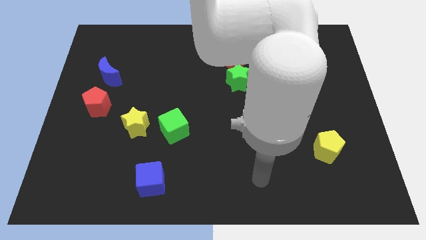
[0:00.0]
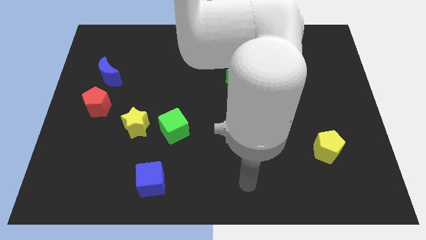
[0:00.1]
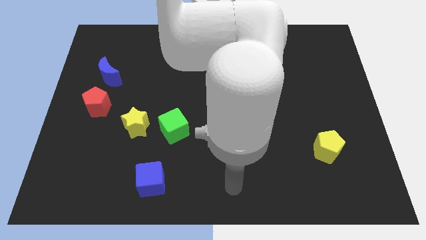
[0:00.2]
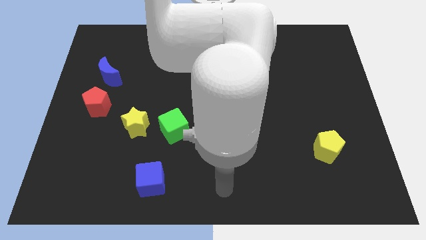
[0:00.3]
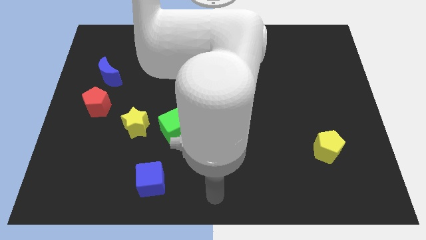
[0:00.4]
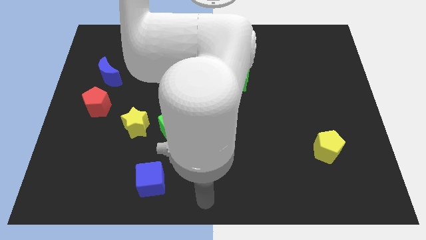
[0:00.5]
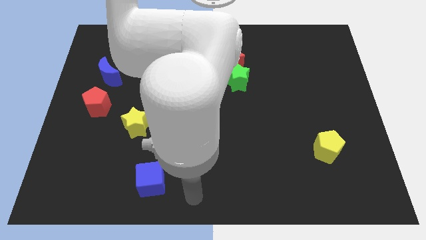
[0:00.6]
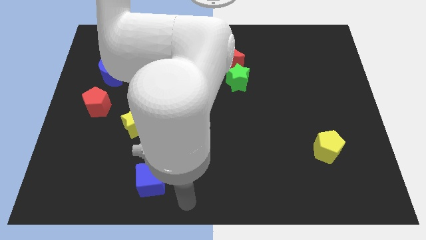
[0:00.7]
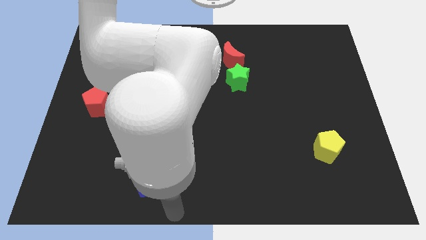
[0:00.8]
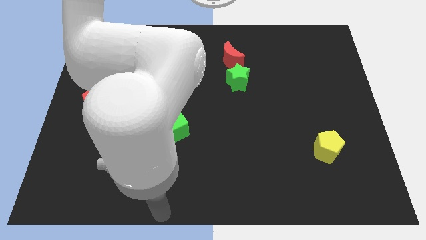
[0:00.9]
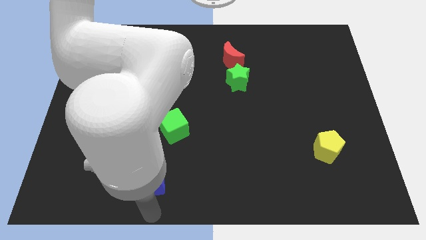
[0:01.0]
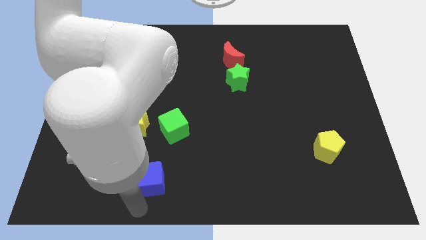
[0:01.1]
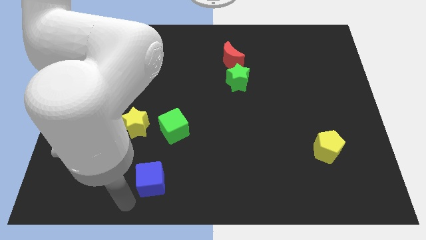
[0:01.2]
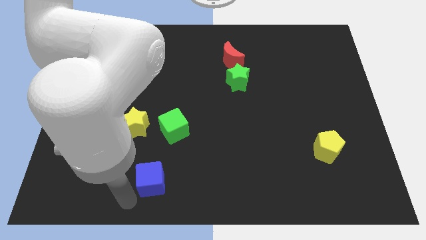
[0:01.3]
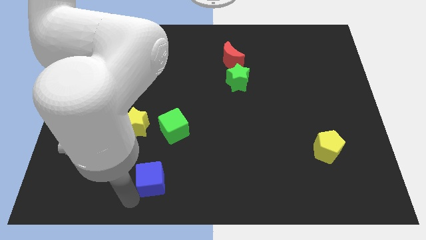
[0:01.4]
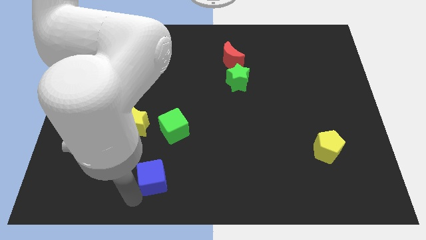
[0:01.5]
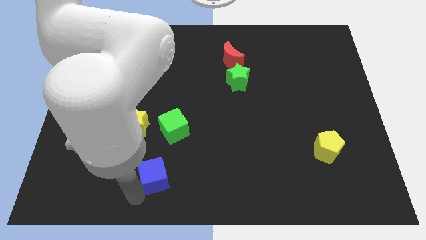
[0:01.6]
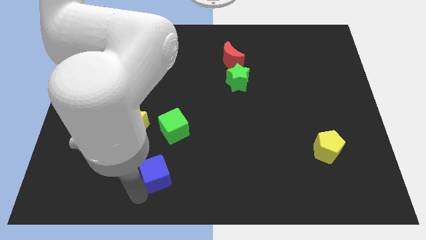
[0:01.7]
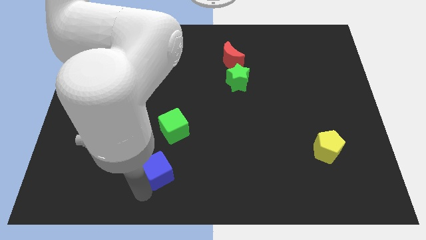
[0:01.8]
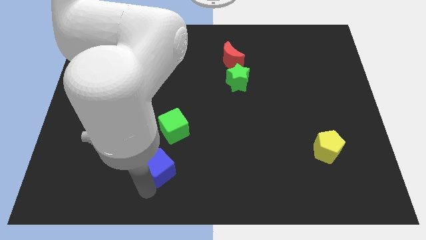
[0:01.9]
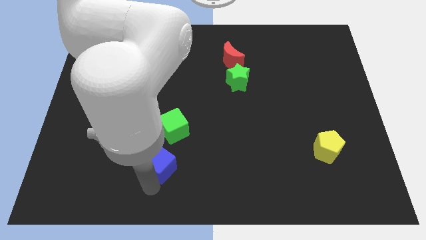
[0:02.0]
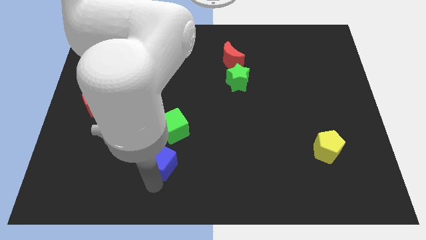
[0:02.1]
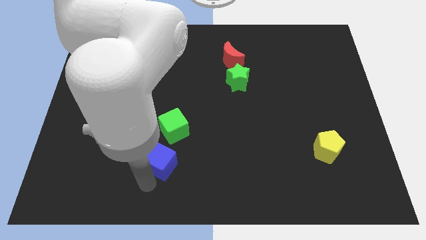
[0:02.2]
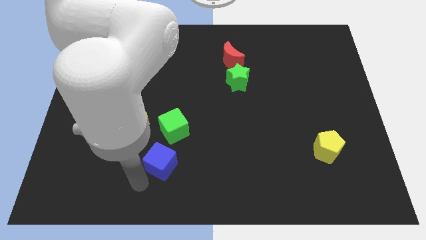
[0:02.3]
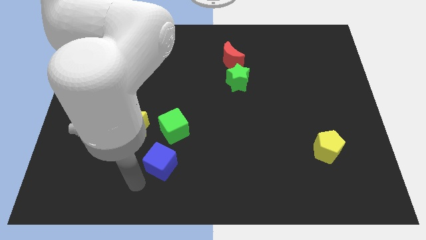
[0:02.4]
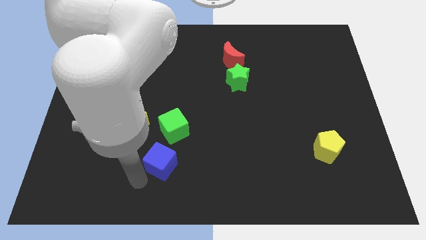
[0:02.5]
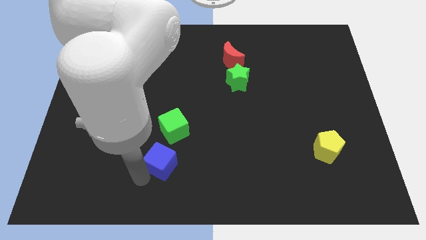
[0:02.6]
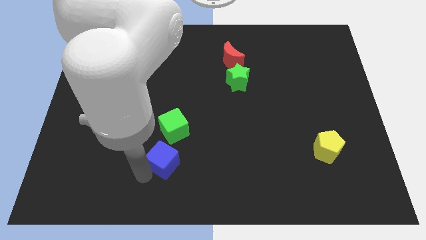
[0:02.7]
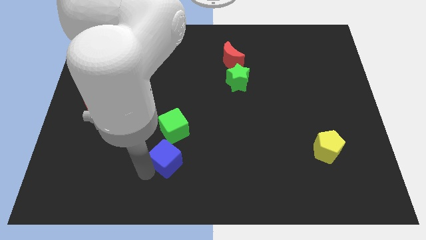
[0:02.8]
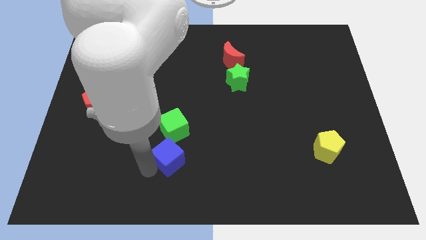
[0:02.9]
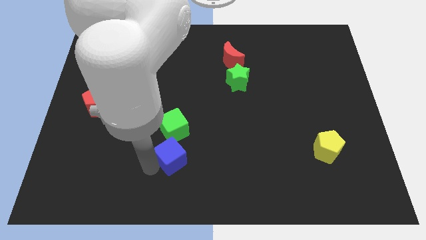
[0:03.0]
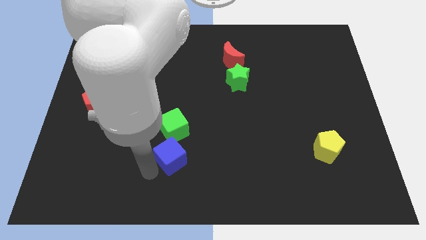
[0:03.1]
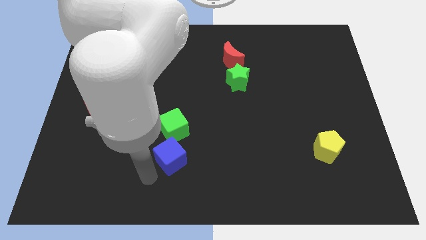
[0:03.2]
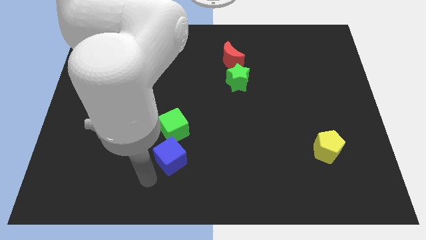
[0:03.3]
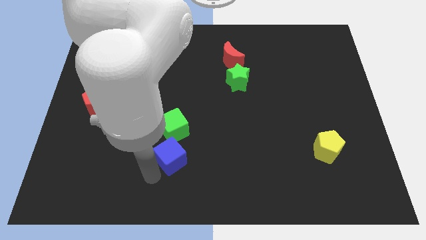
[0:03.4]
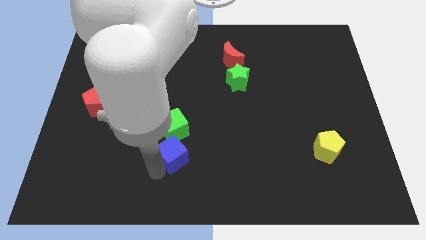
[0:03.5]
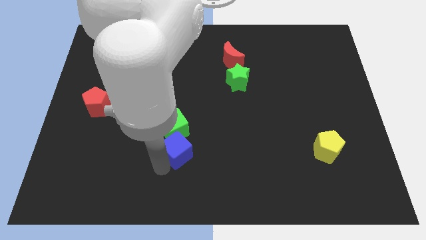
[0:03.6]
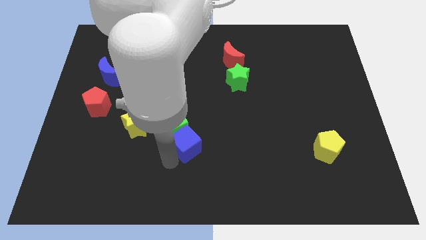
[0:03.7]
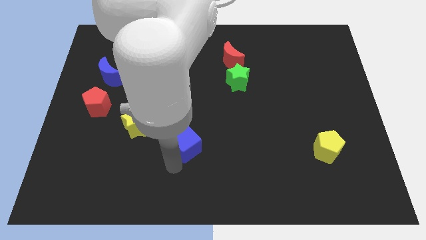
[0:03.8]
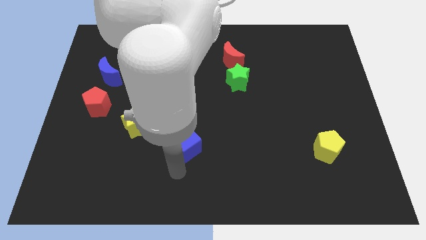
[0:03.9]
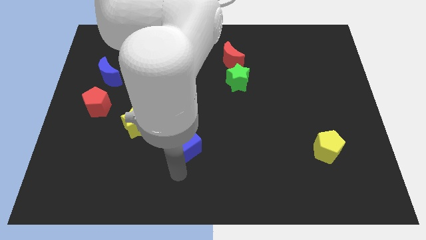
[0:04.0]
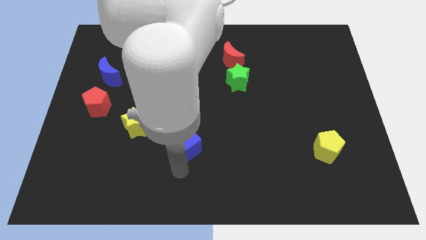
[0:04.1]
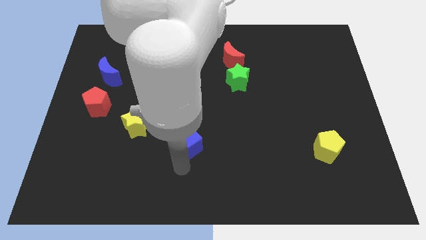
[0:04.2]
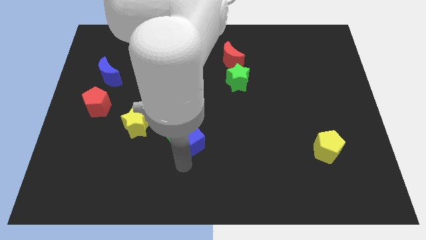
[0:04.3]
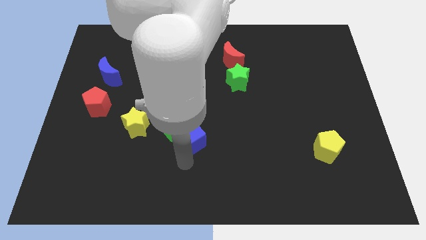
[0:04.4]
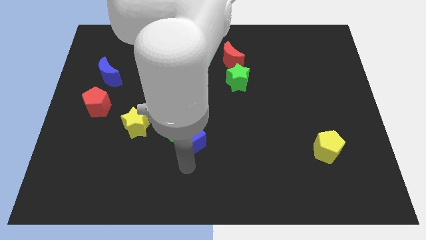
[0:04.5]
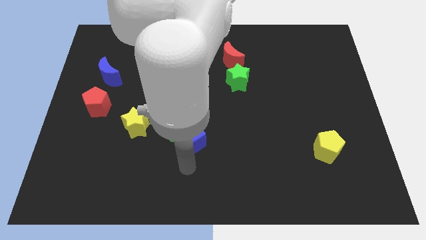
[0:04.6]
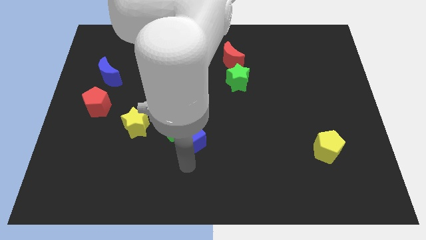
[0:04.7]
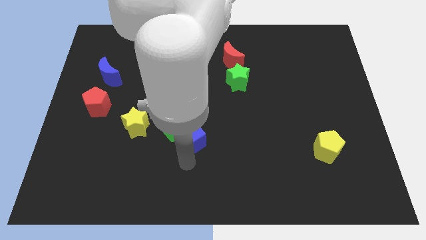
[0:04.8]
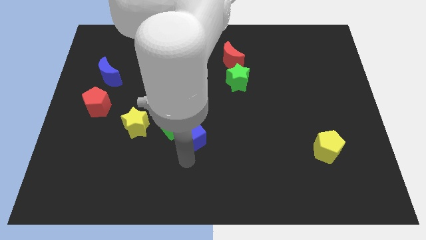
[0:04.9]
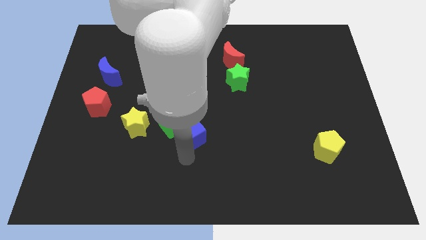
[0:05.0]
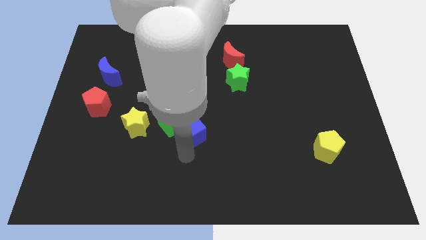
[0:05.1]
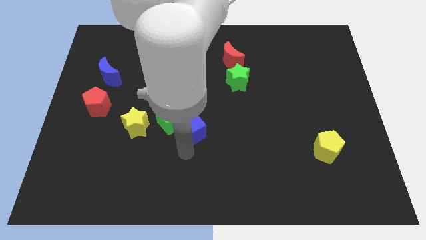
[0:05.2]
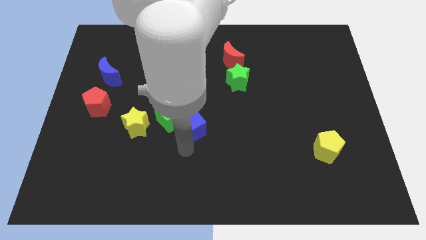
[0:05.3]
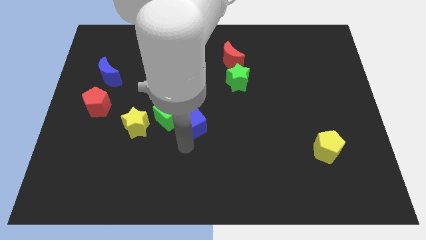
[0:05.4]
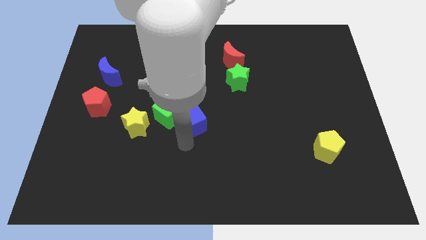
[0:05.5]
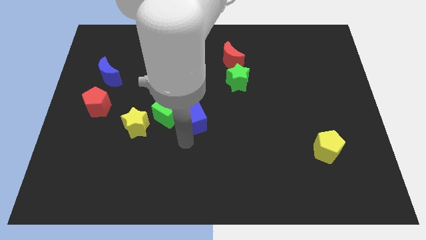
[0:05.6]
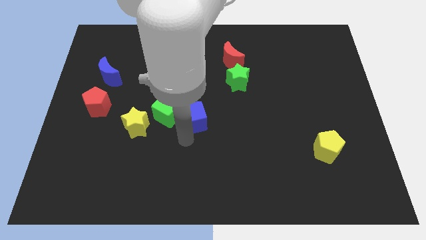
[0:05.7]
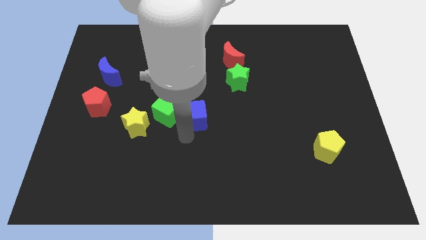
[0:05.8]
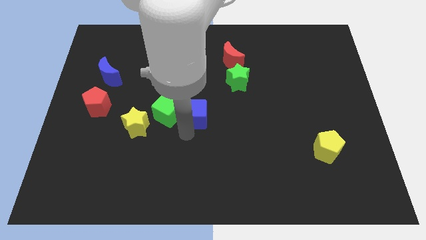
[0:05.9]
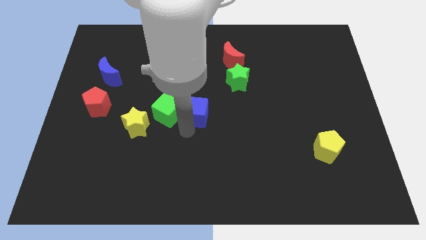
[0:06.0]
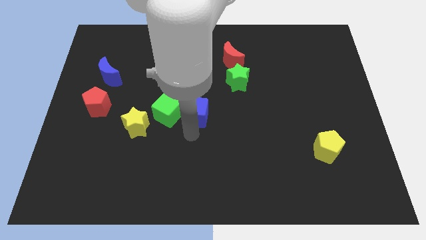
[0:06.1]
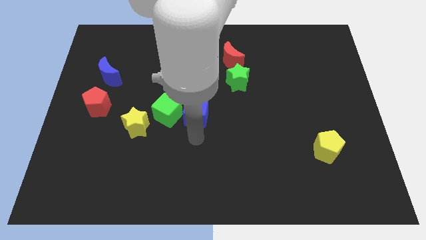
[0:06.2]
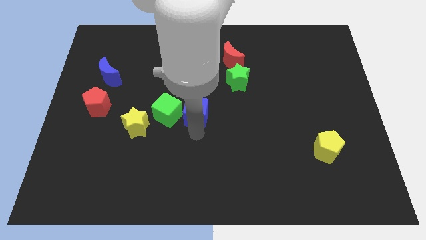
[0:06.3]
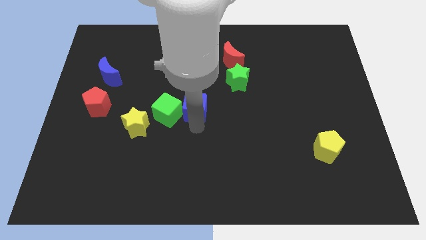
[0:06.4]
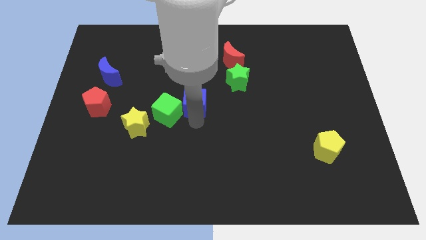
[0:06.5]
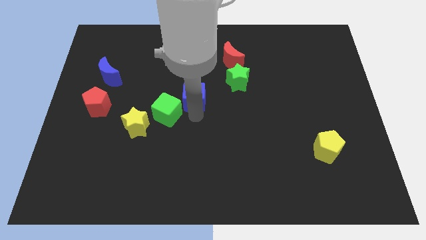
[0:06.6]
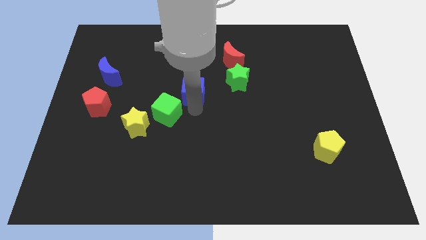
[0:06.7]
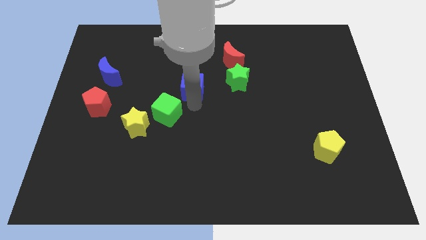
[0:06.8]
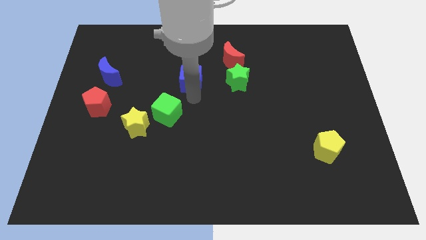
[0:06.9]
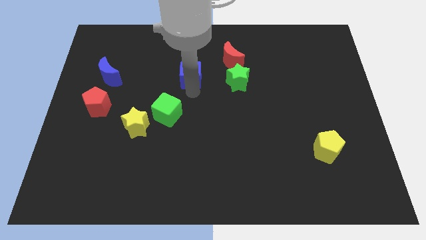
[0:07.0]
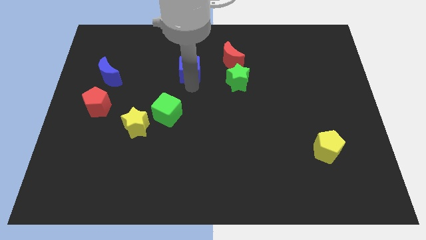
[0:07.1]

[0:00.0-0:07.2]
move the blue cube to the left of the red moon

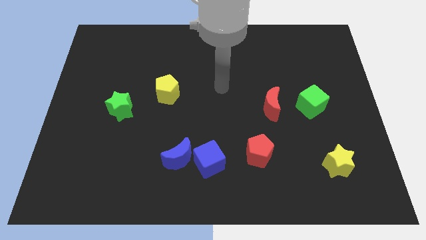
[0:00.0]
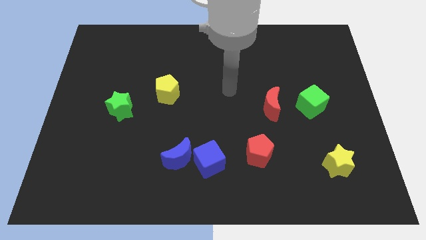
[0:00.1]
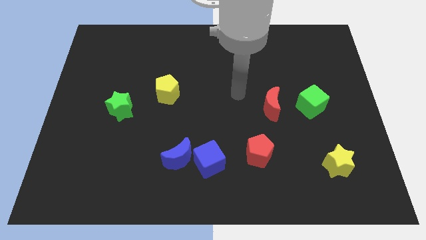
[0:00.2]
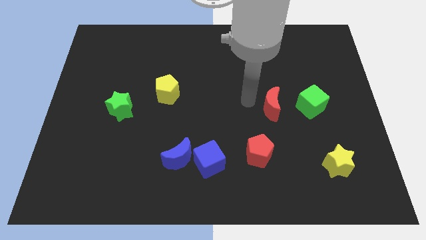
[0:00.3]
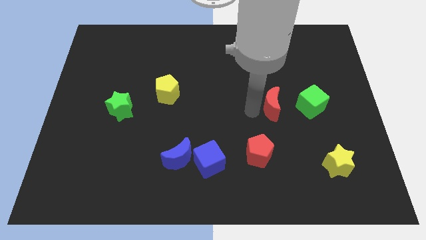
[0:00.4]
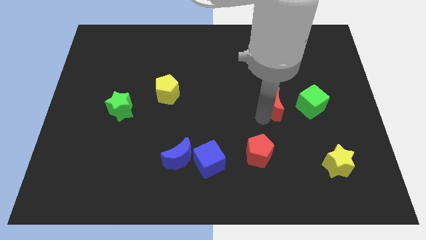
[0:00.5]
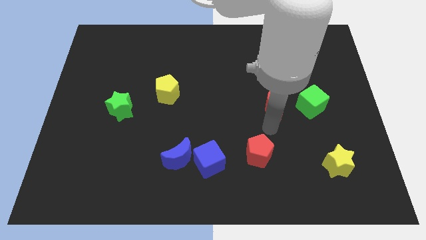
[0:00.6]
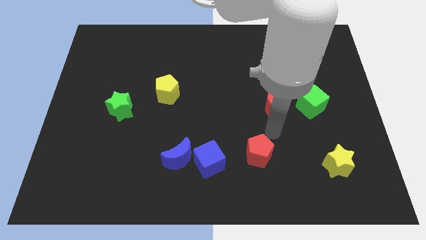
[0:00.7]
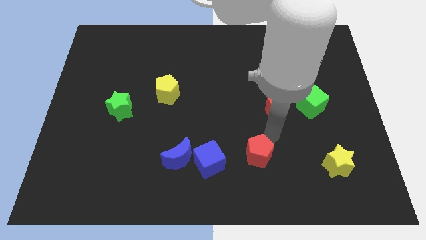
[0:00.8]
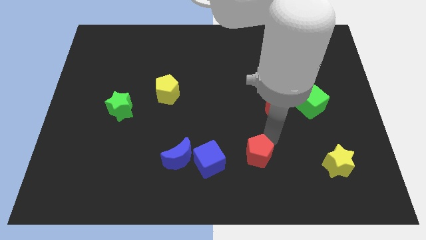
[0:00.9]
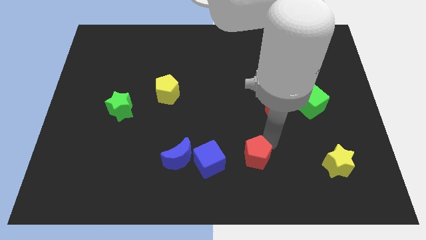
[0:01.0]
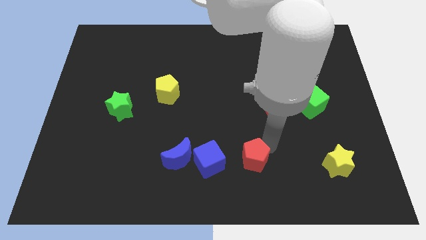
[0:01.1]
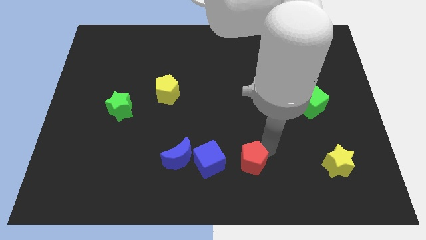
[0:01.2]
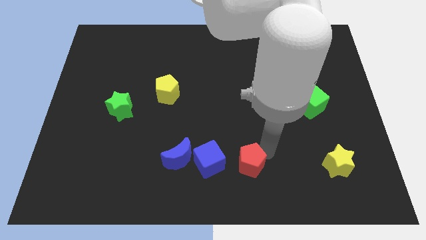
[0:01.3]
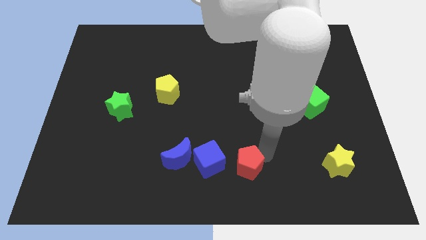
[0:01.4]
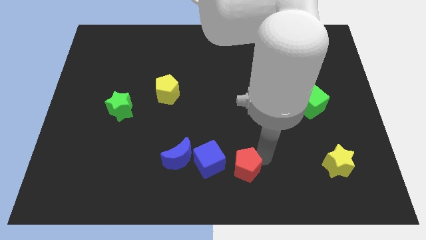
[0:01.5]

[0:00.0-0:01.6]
slide the red pentagon diagonally down and to the right of the blue cube
